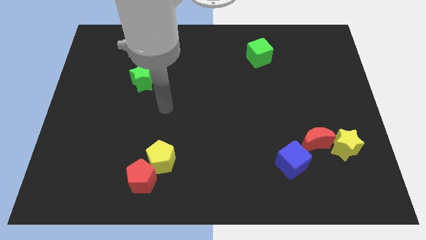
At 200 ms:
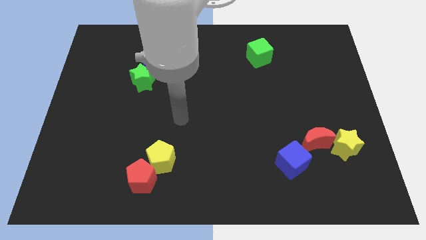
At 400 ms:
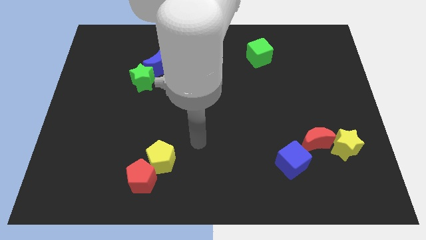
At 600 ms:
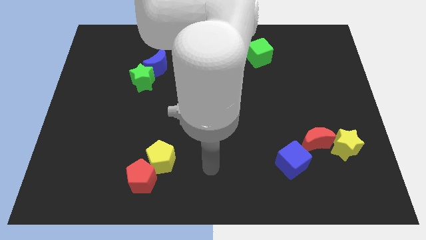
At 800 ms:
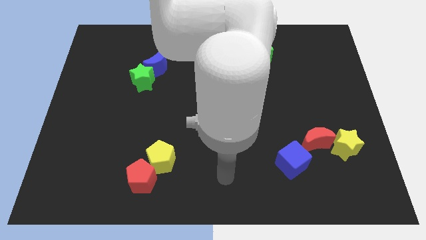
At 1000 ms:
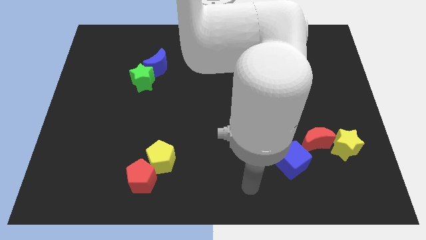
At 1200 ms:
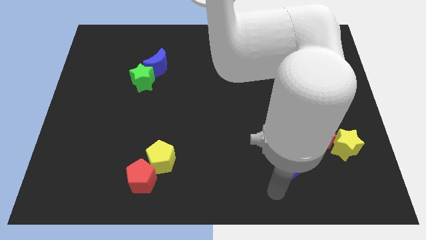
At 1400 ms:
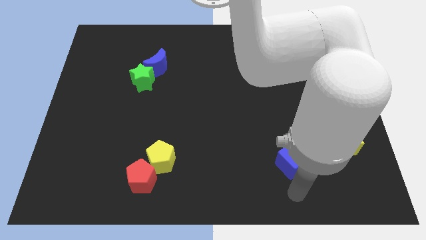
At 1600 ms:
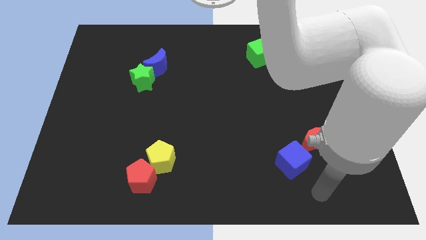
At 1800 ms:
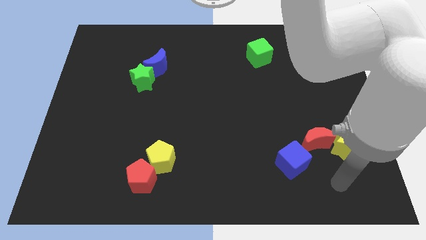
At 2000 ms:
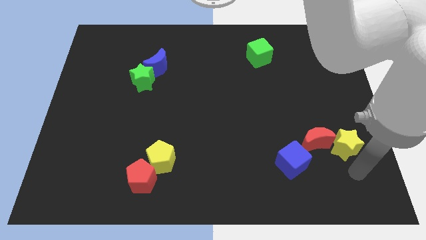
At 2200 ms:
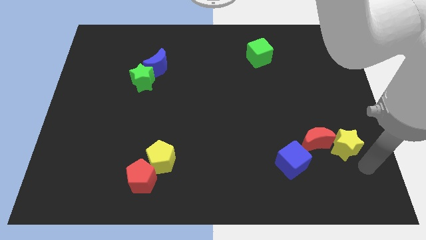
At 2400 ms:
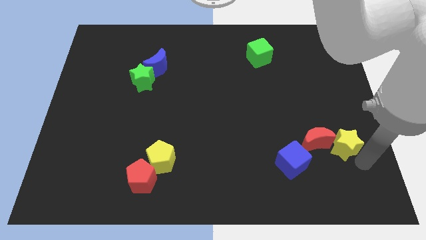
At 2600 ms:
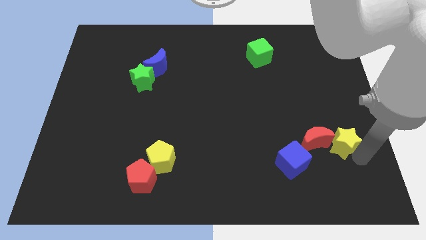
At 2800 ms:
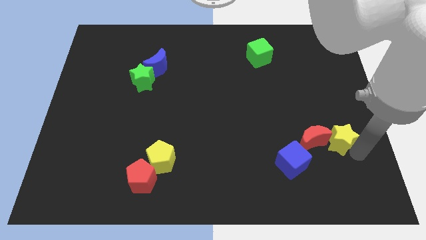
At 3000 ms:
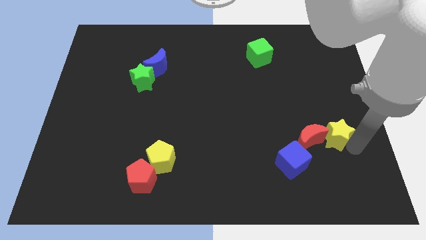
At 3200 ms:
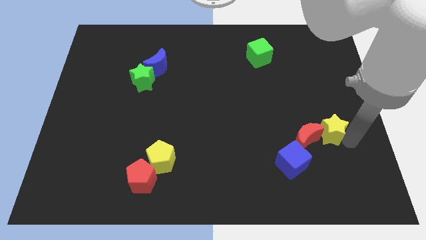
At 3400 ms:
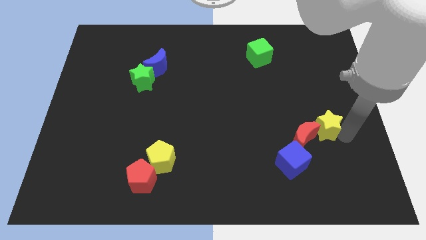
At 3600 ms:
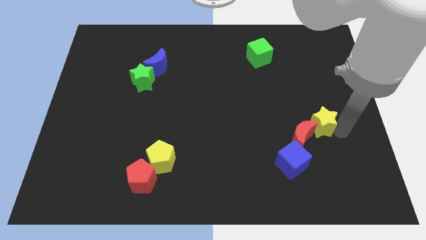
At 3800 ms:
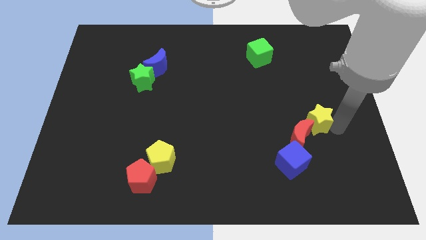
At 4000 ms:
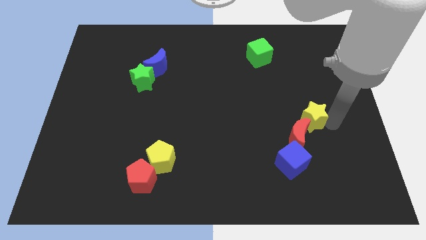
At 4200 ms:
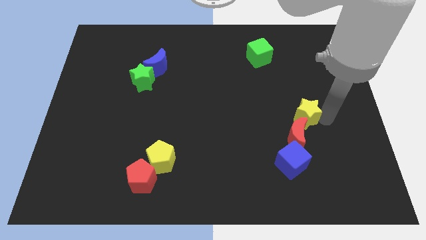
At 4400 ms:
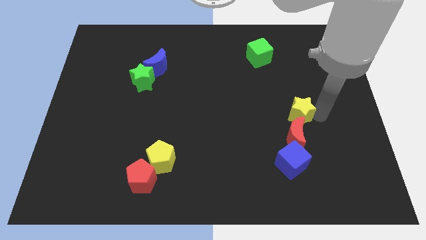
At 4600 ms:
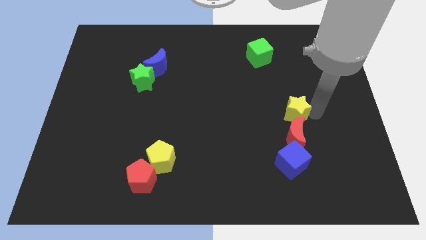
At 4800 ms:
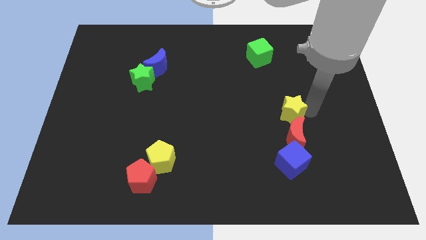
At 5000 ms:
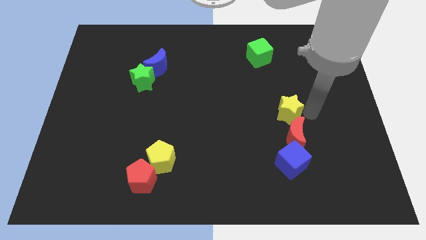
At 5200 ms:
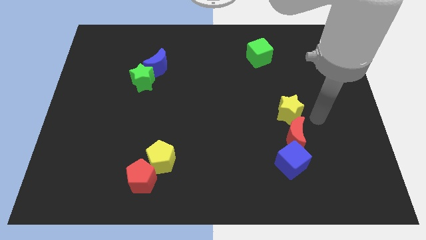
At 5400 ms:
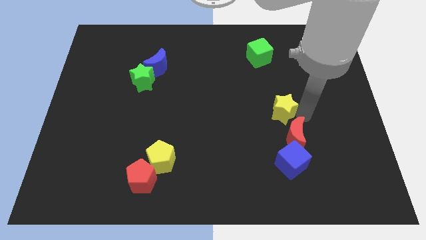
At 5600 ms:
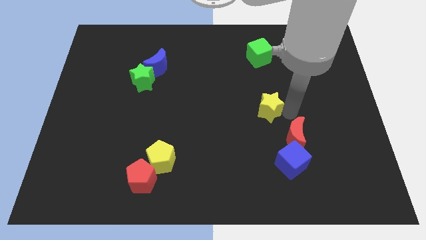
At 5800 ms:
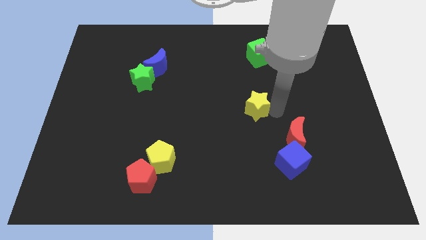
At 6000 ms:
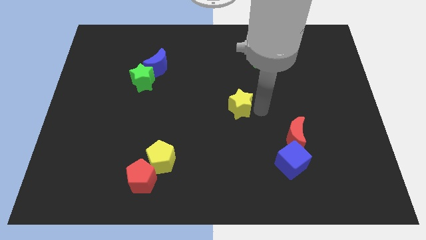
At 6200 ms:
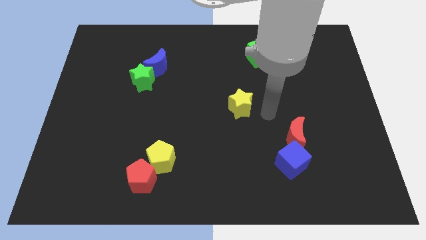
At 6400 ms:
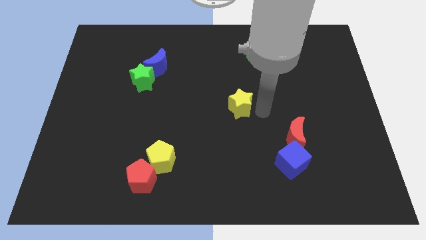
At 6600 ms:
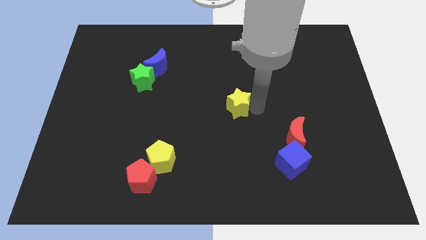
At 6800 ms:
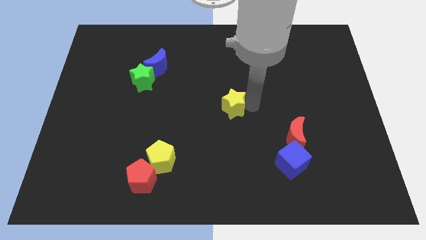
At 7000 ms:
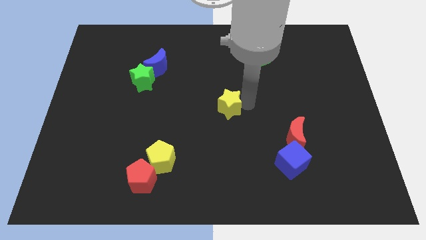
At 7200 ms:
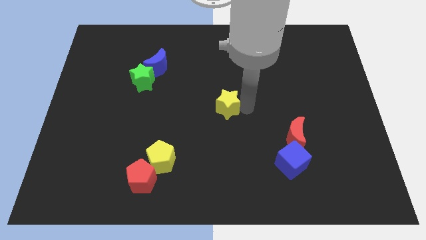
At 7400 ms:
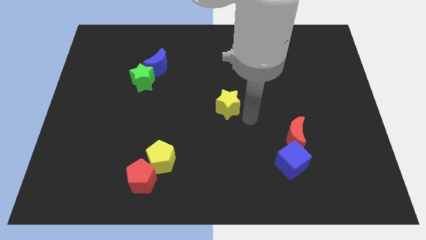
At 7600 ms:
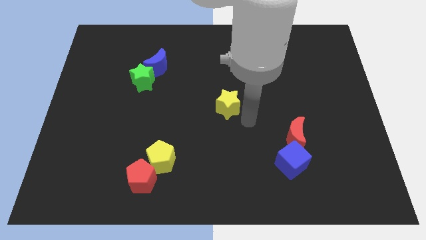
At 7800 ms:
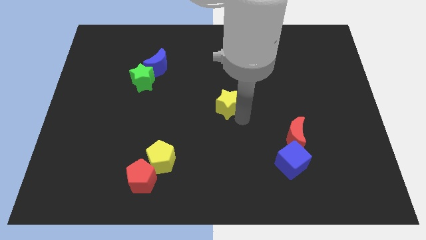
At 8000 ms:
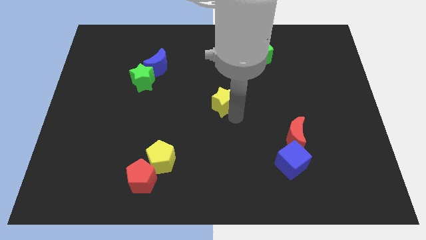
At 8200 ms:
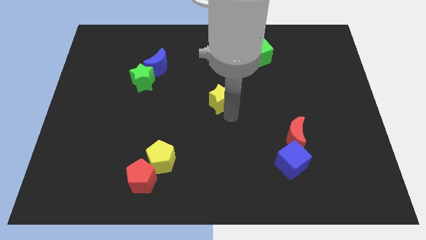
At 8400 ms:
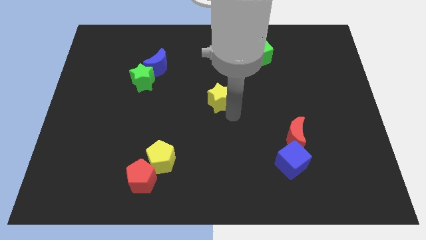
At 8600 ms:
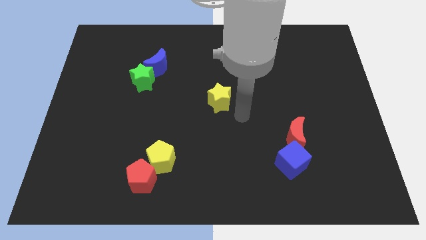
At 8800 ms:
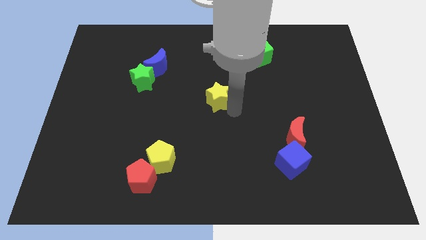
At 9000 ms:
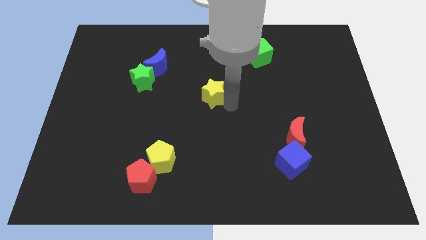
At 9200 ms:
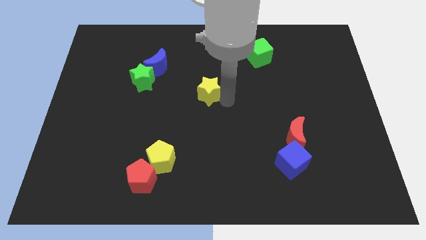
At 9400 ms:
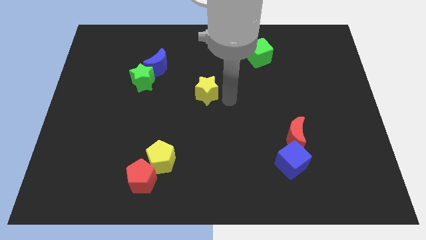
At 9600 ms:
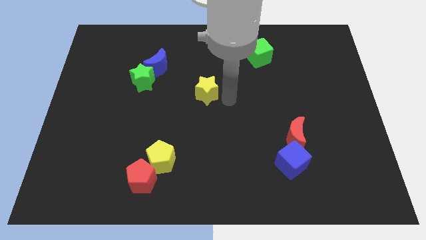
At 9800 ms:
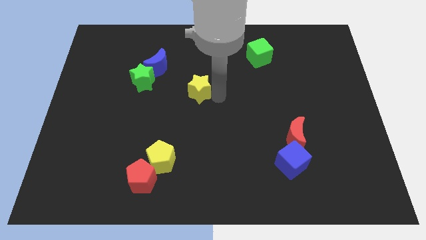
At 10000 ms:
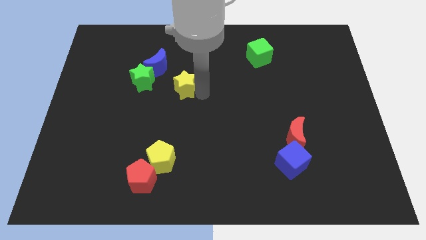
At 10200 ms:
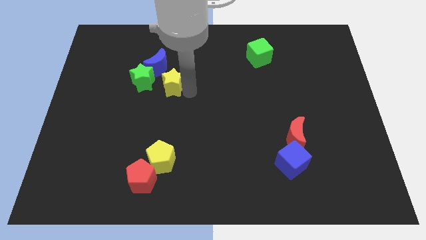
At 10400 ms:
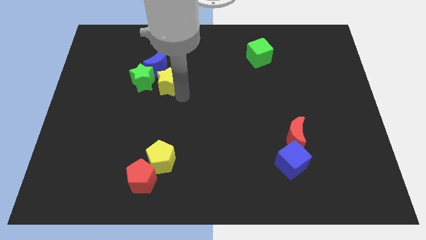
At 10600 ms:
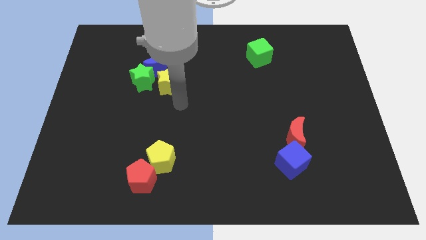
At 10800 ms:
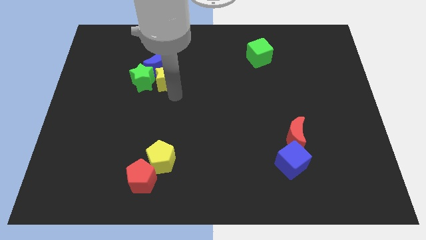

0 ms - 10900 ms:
put the yellow star to the blue moon

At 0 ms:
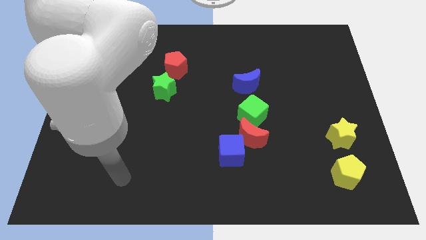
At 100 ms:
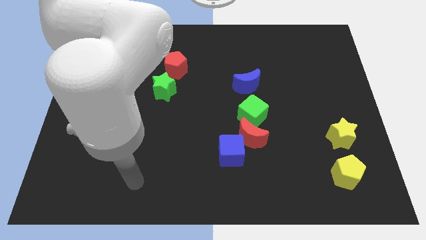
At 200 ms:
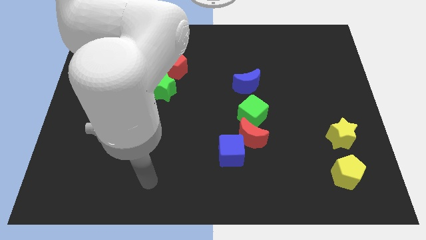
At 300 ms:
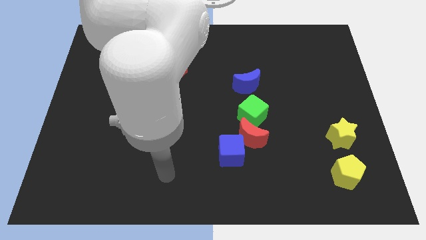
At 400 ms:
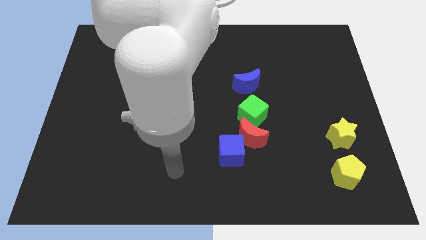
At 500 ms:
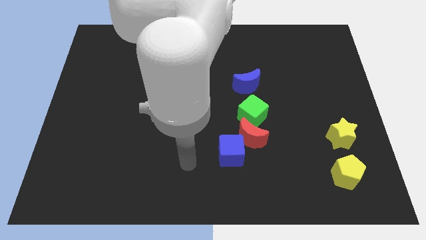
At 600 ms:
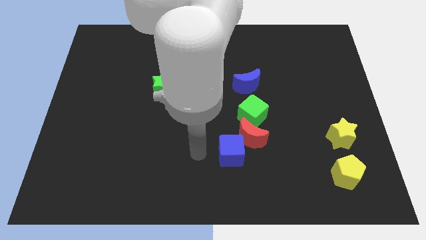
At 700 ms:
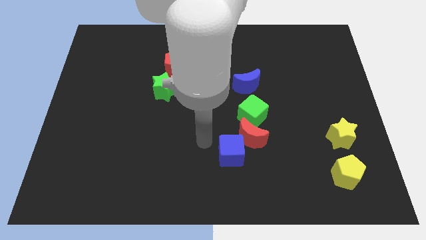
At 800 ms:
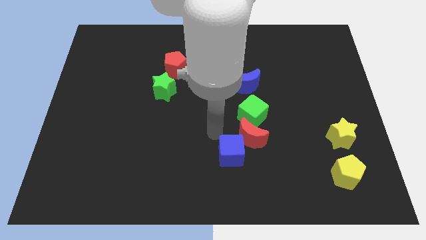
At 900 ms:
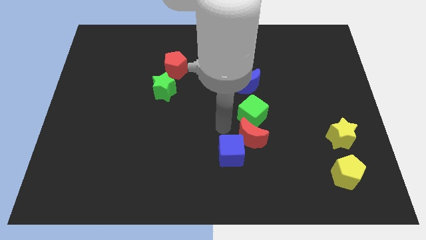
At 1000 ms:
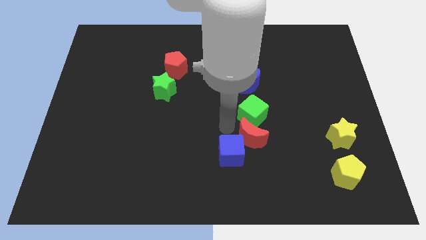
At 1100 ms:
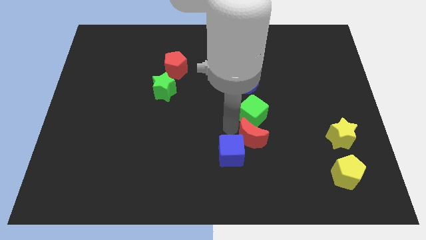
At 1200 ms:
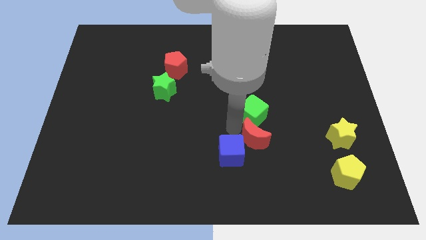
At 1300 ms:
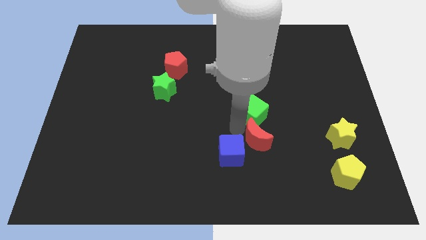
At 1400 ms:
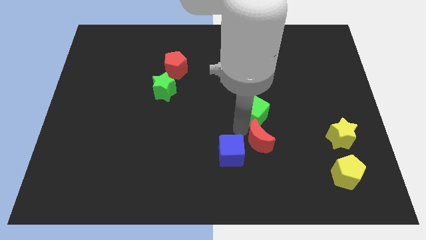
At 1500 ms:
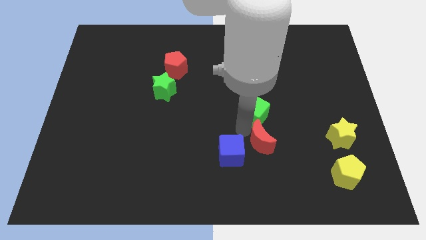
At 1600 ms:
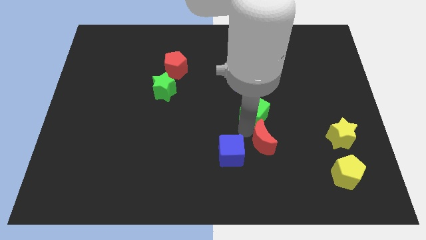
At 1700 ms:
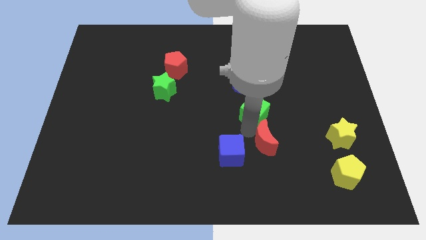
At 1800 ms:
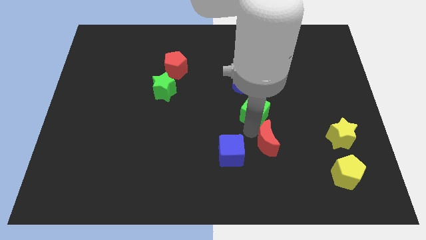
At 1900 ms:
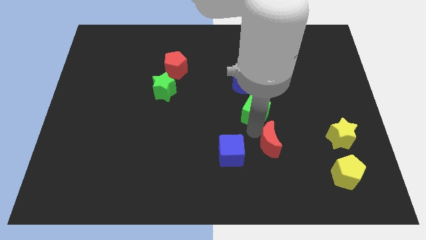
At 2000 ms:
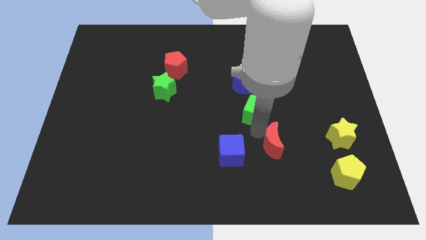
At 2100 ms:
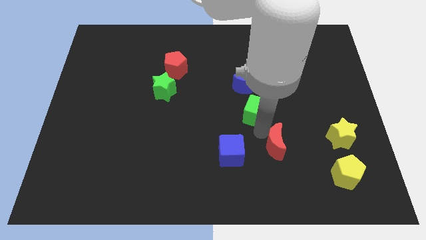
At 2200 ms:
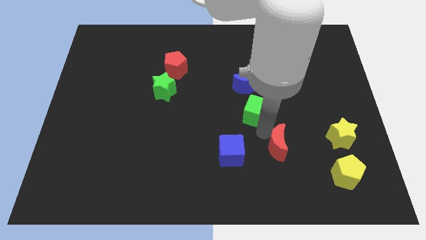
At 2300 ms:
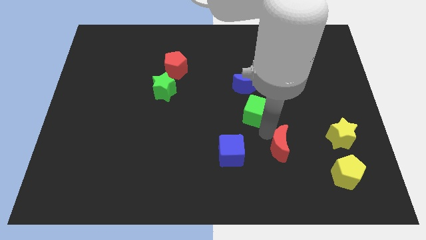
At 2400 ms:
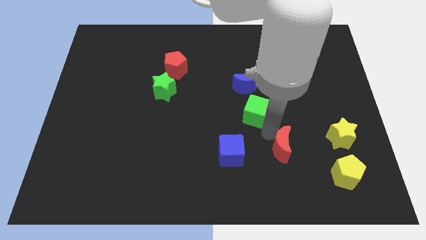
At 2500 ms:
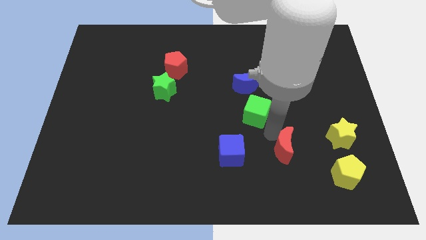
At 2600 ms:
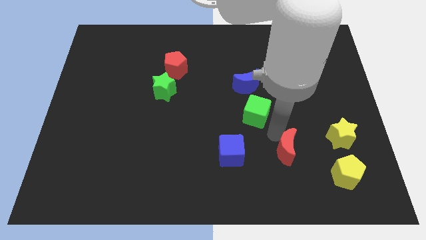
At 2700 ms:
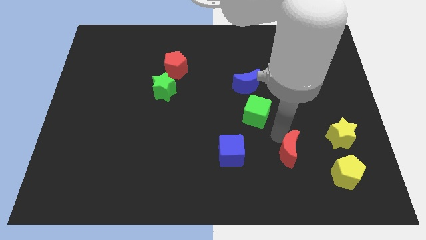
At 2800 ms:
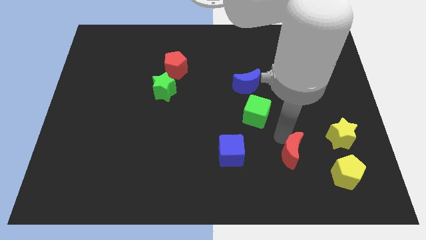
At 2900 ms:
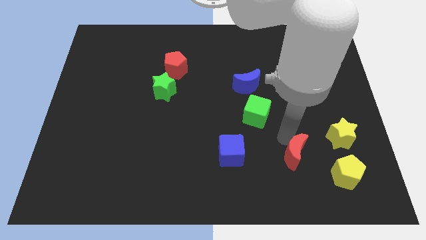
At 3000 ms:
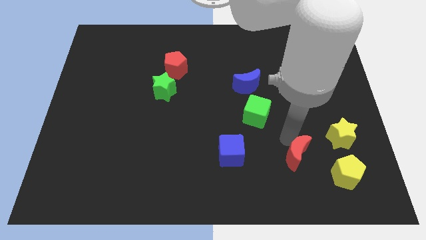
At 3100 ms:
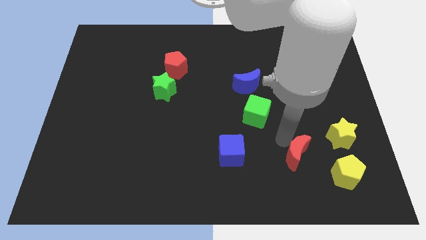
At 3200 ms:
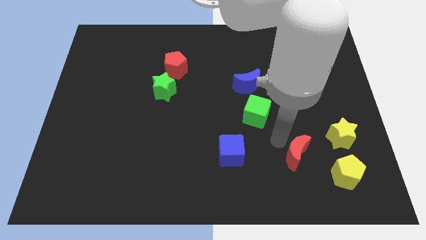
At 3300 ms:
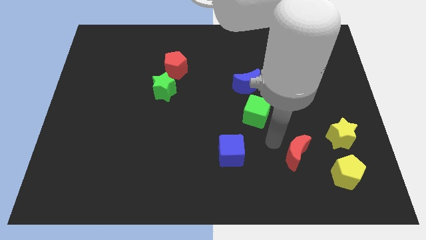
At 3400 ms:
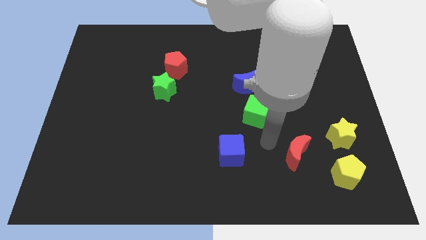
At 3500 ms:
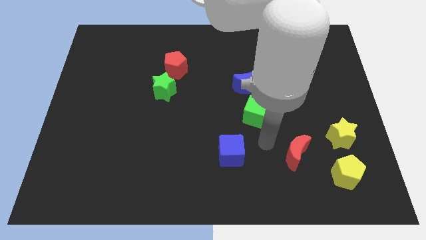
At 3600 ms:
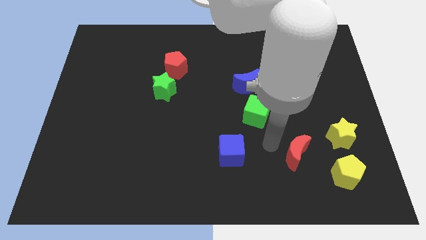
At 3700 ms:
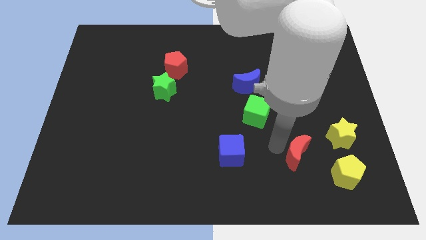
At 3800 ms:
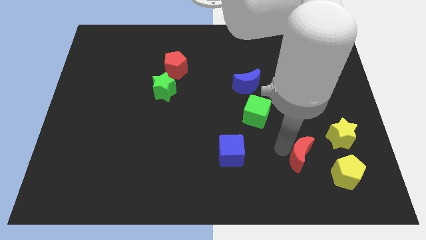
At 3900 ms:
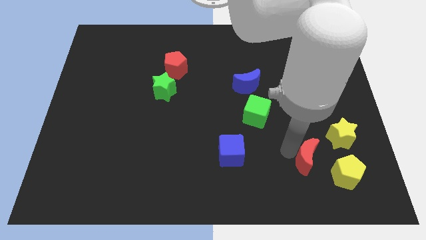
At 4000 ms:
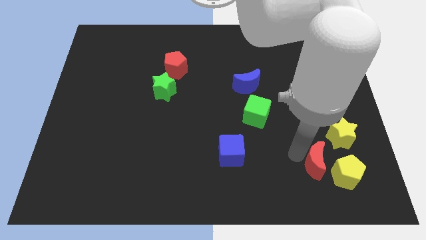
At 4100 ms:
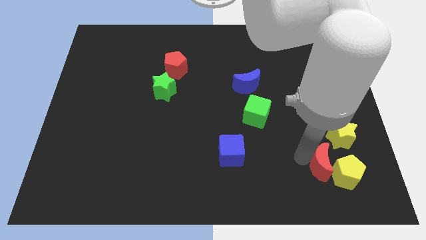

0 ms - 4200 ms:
push the red moon to the yellow pentagon
